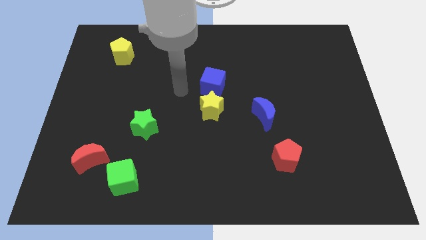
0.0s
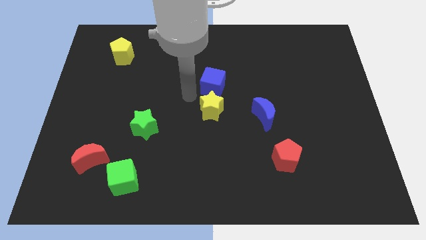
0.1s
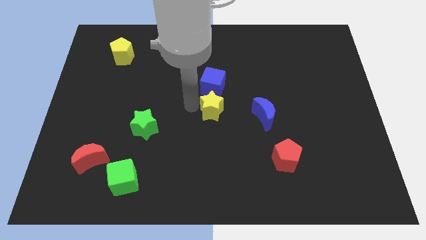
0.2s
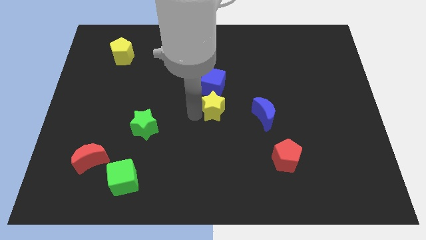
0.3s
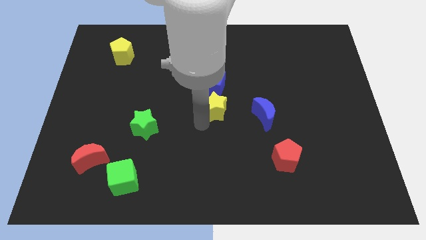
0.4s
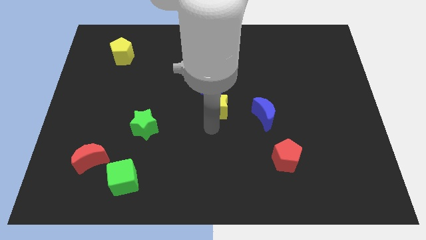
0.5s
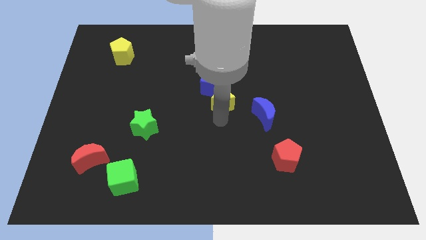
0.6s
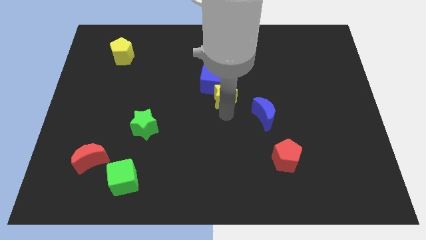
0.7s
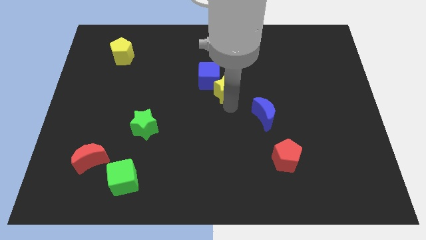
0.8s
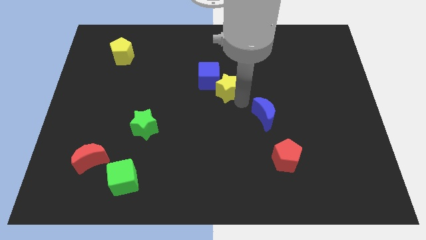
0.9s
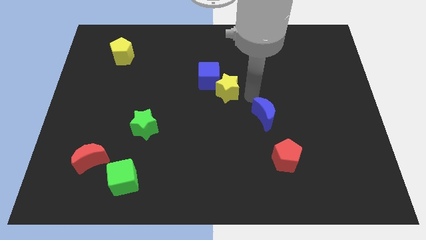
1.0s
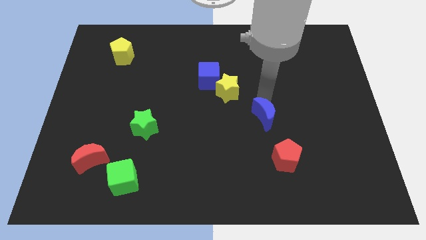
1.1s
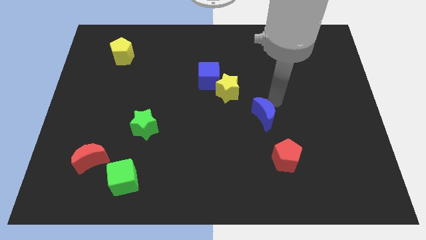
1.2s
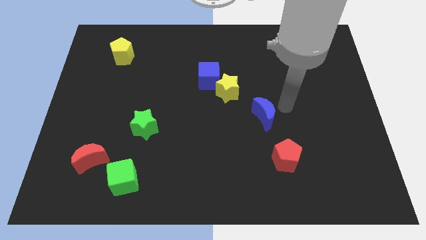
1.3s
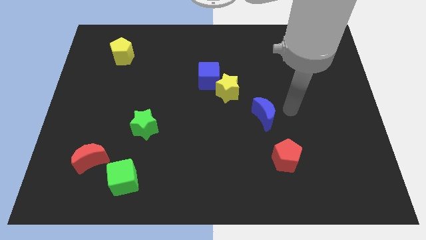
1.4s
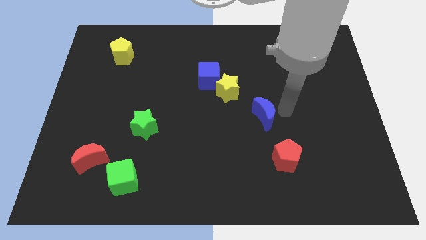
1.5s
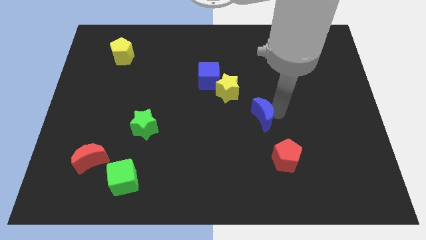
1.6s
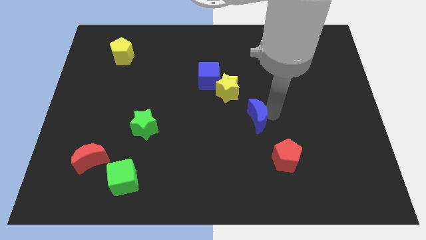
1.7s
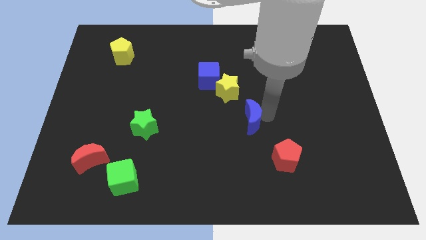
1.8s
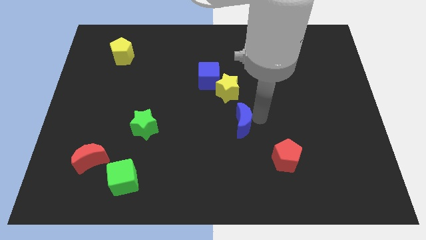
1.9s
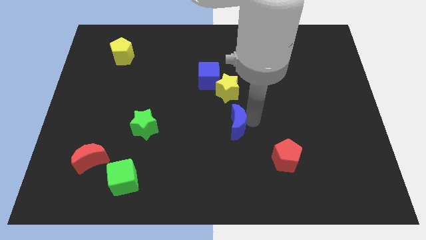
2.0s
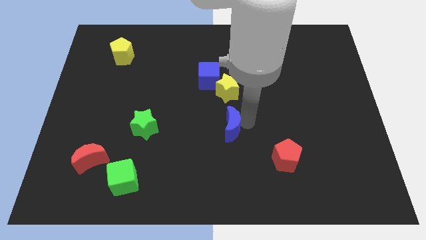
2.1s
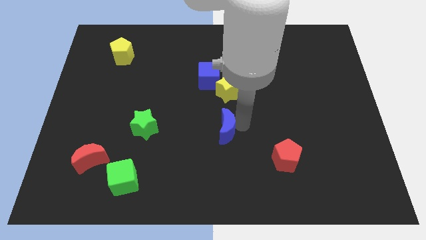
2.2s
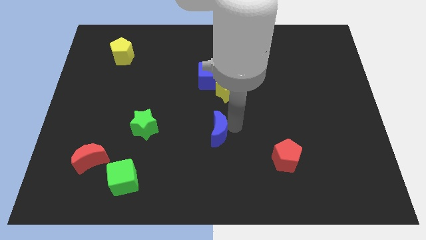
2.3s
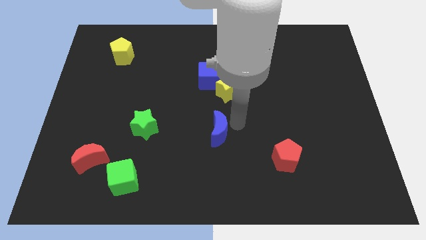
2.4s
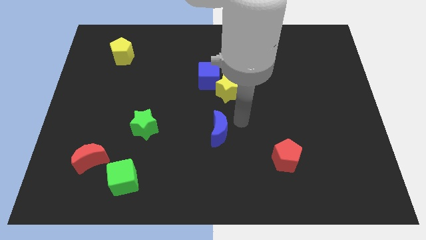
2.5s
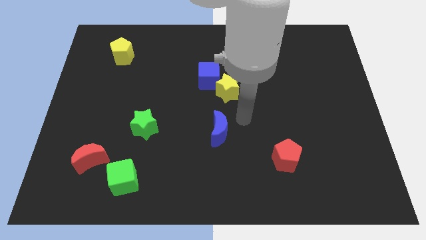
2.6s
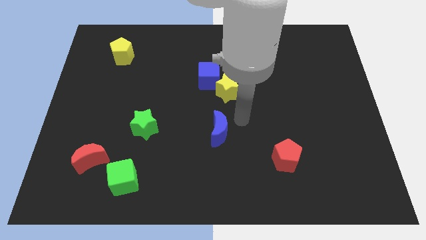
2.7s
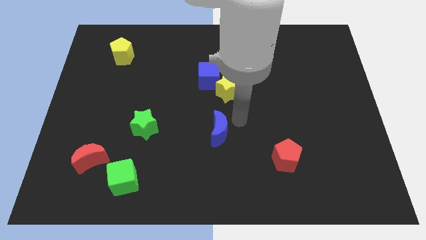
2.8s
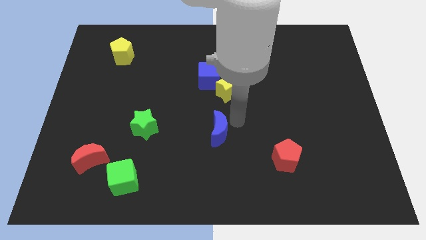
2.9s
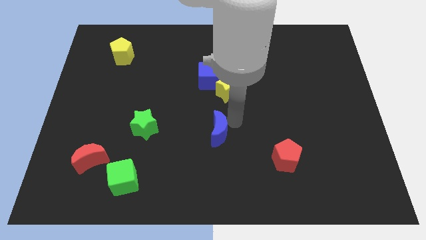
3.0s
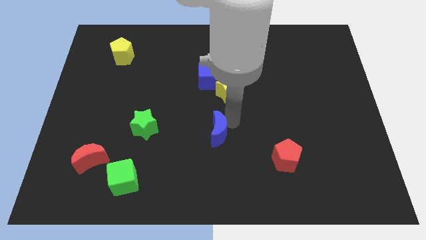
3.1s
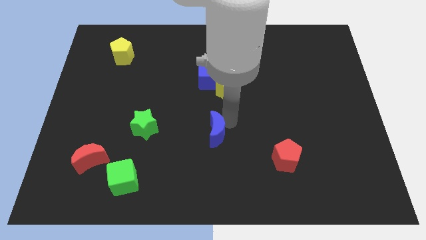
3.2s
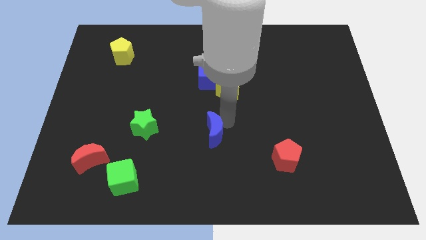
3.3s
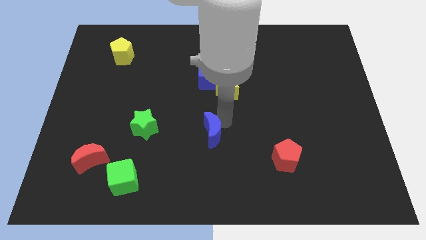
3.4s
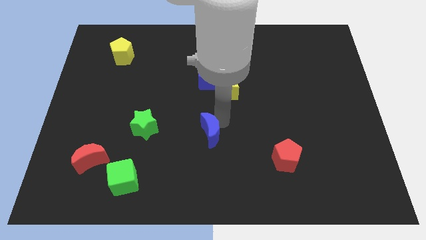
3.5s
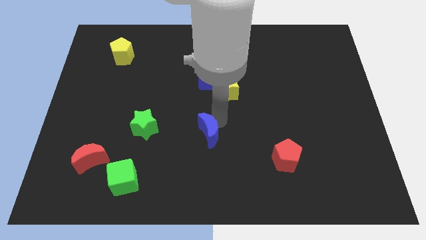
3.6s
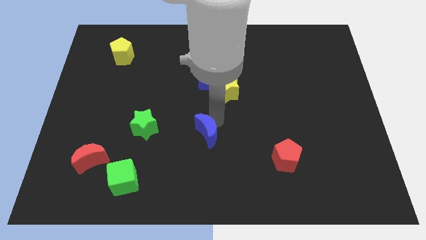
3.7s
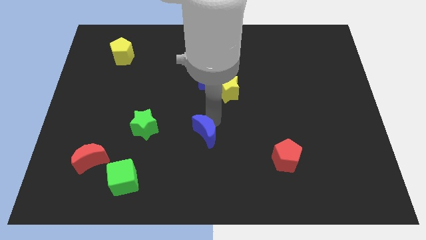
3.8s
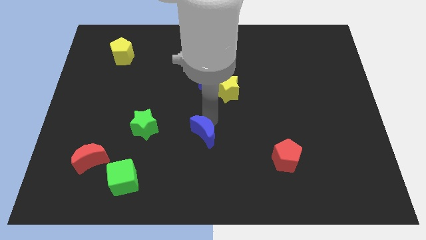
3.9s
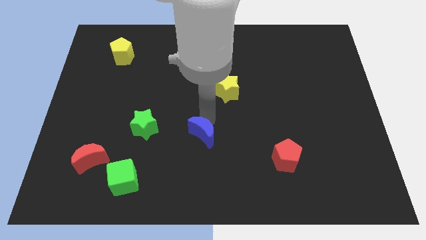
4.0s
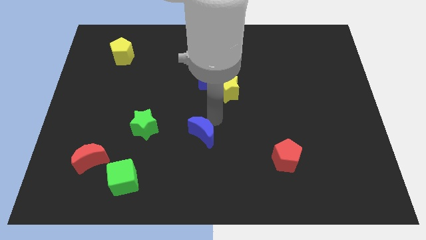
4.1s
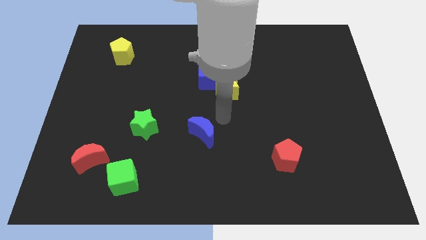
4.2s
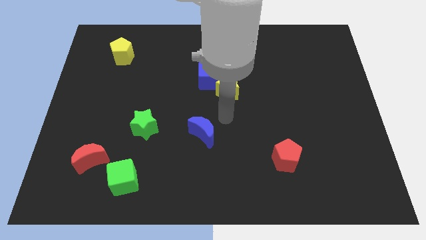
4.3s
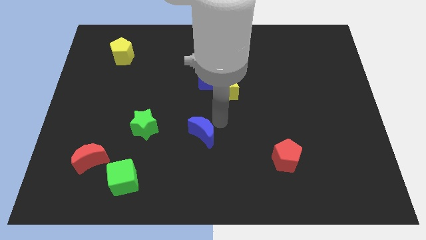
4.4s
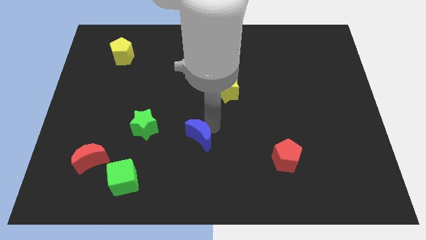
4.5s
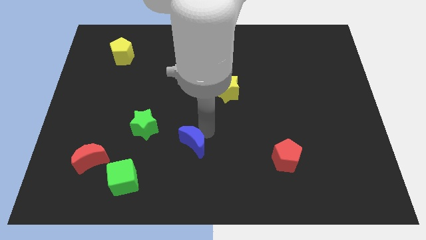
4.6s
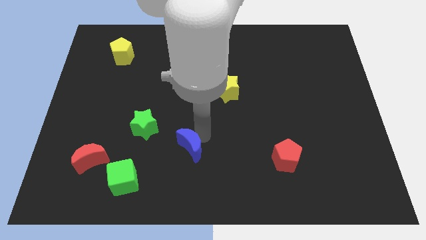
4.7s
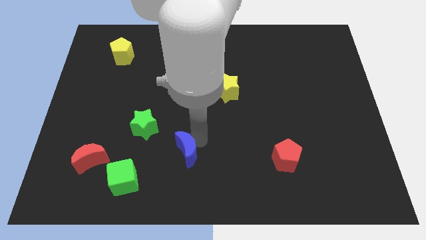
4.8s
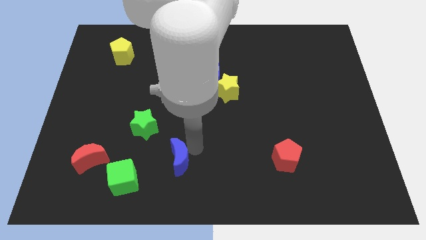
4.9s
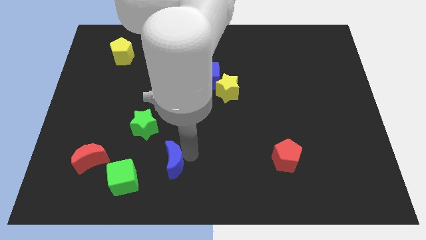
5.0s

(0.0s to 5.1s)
push the blue moon to the top right side of the green cube

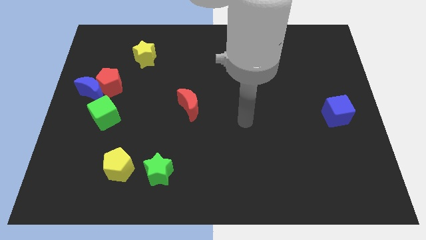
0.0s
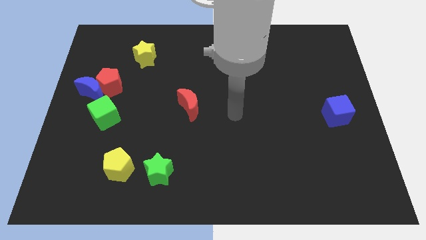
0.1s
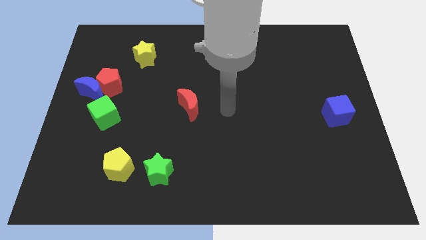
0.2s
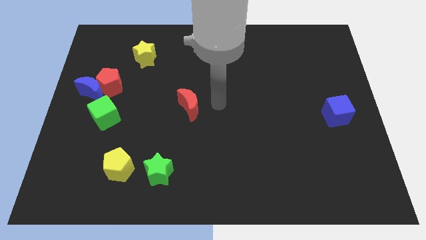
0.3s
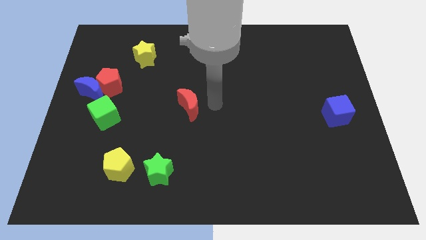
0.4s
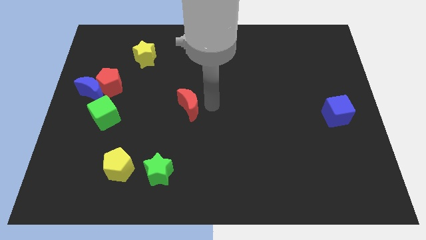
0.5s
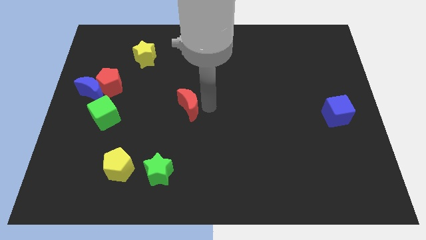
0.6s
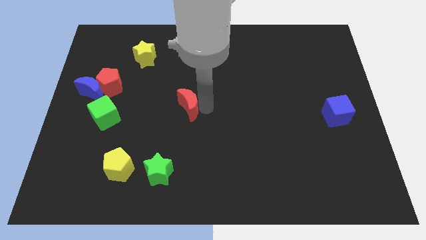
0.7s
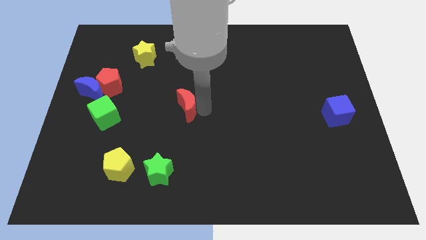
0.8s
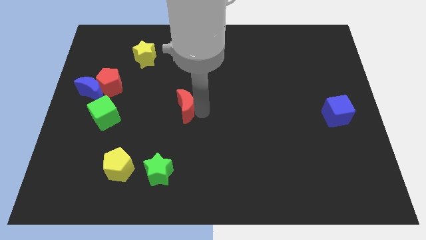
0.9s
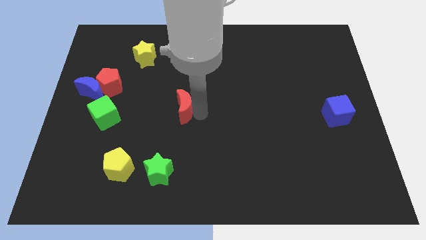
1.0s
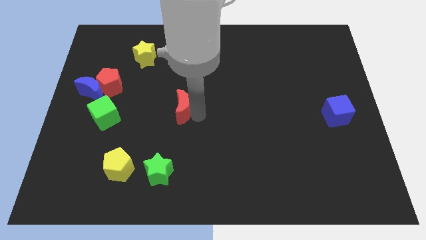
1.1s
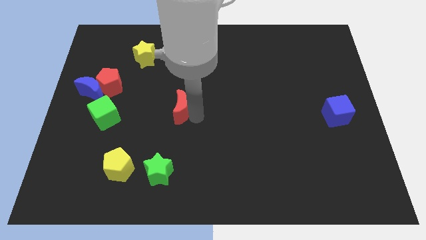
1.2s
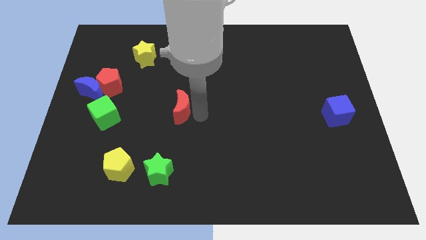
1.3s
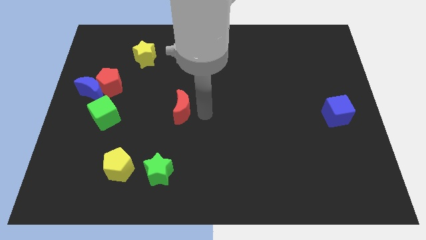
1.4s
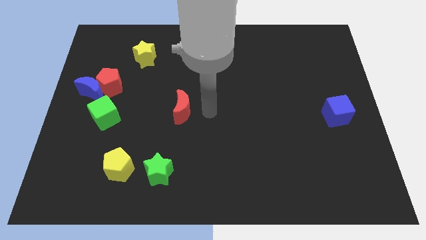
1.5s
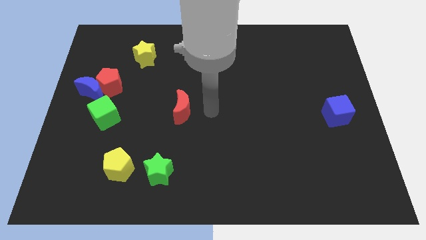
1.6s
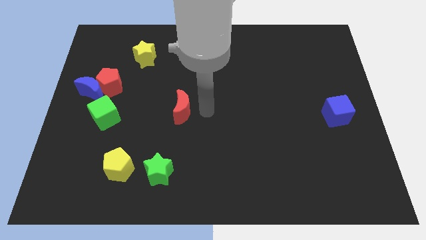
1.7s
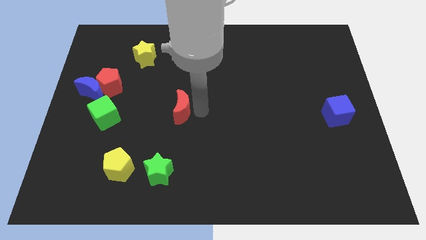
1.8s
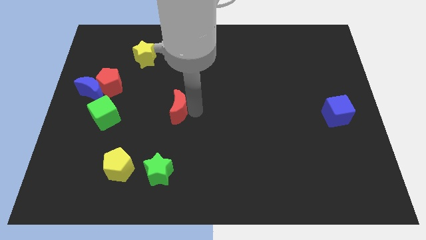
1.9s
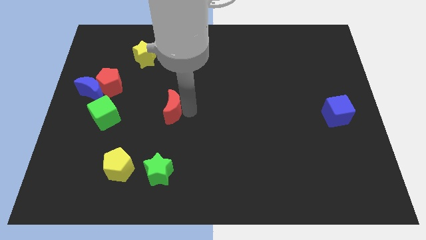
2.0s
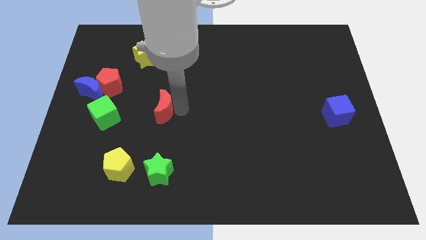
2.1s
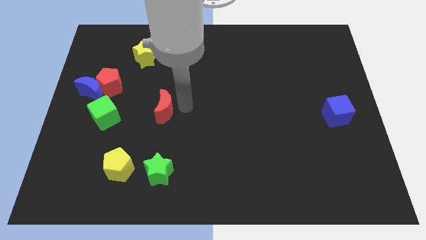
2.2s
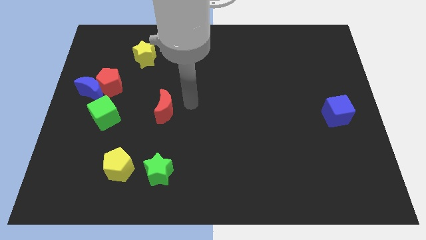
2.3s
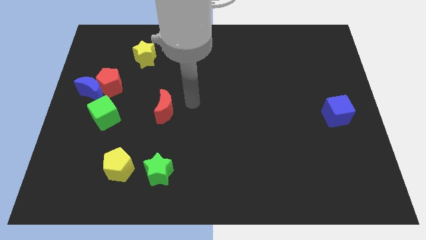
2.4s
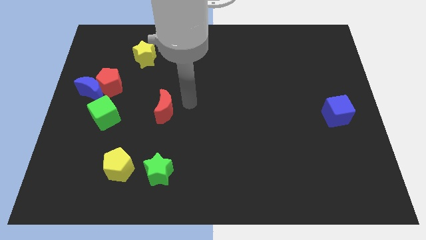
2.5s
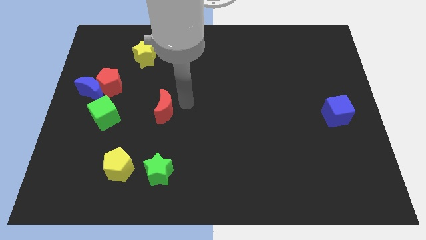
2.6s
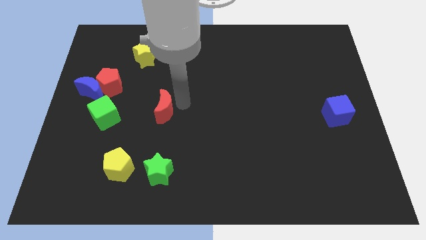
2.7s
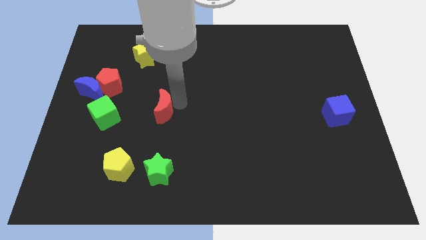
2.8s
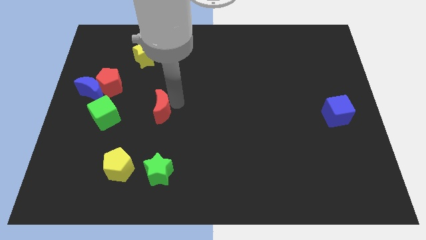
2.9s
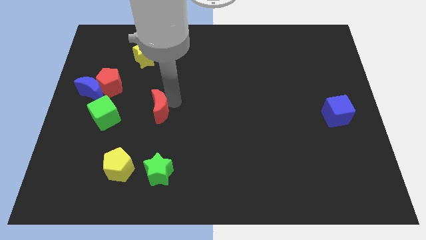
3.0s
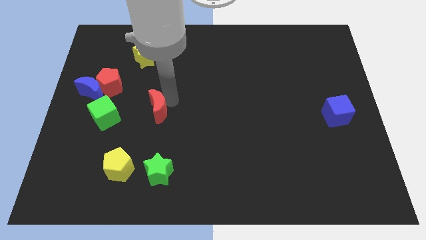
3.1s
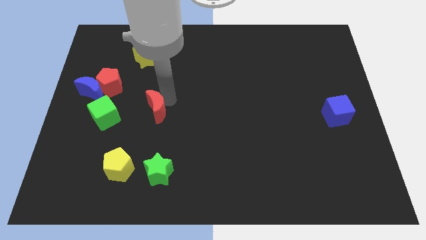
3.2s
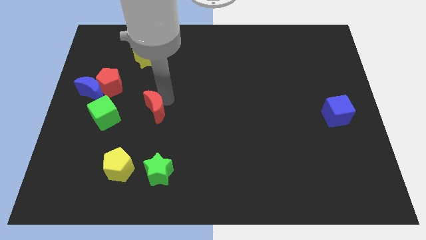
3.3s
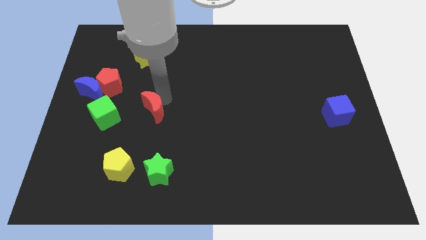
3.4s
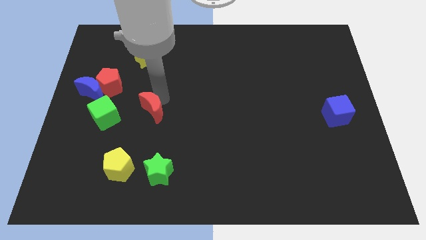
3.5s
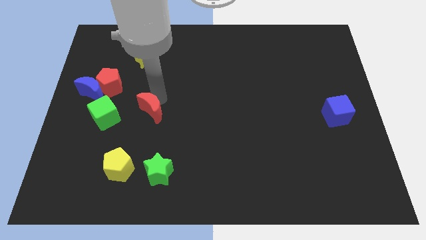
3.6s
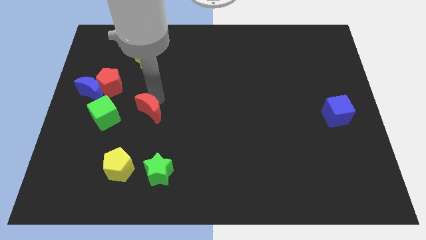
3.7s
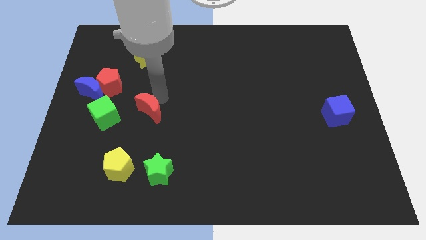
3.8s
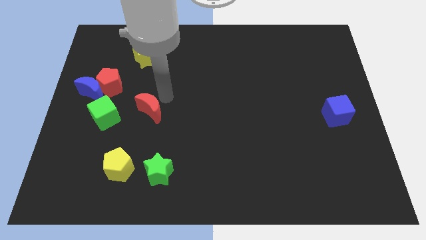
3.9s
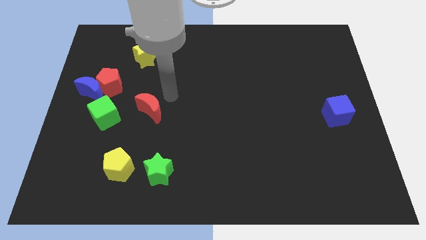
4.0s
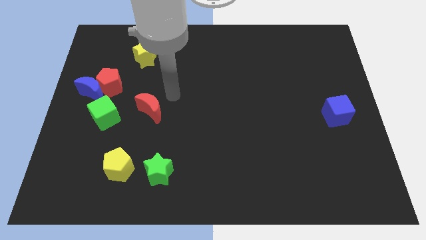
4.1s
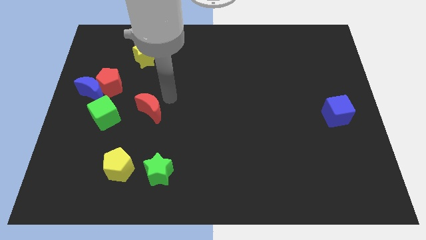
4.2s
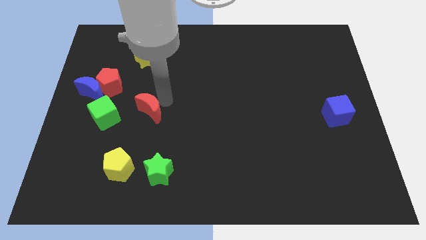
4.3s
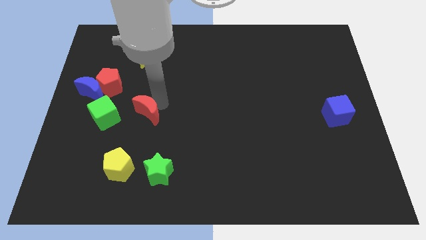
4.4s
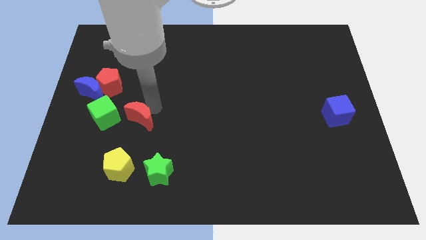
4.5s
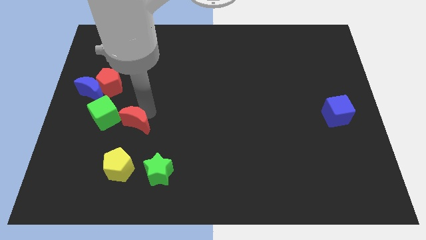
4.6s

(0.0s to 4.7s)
push the red moon to the bottom right side of the green cube
